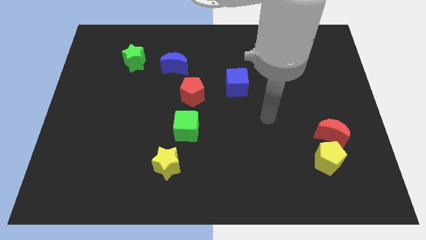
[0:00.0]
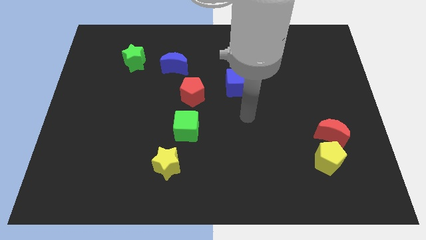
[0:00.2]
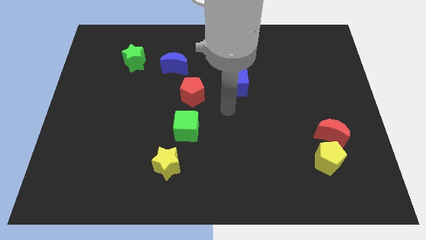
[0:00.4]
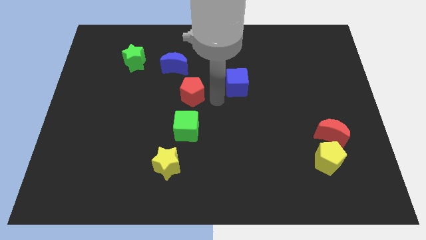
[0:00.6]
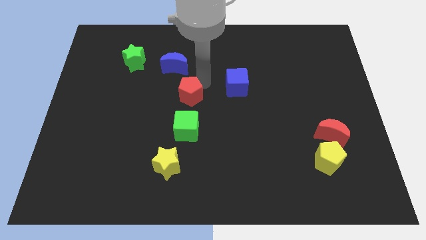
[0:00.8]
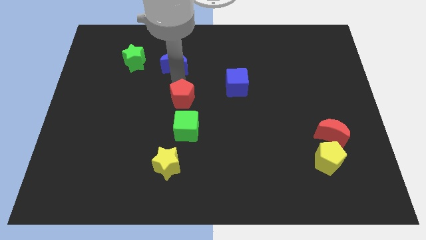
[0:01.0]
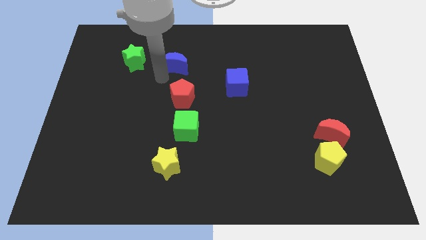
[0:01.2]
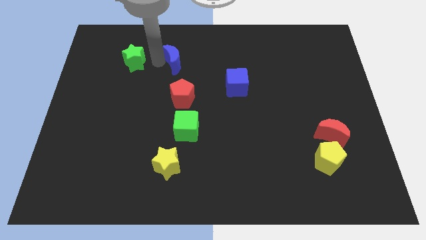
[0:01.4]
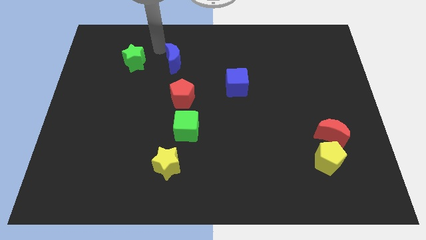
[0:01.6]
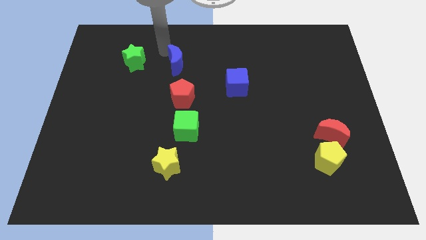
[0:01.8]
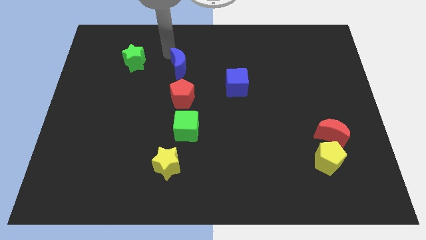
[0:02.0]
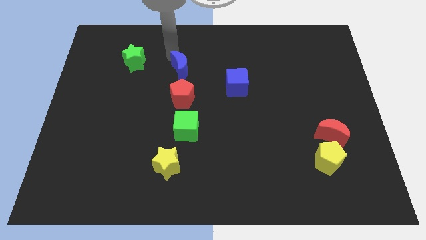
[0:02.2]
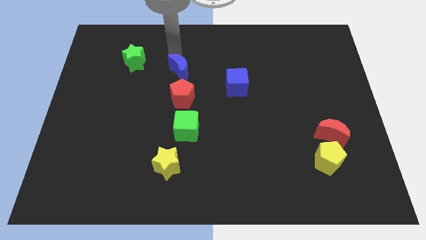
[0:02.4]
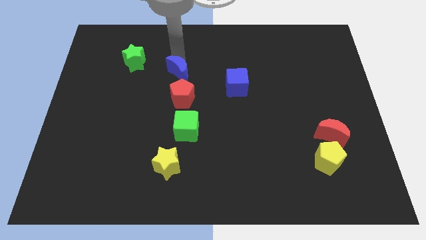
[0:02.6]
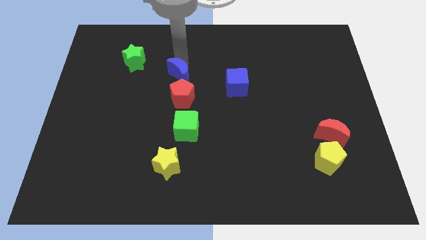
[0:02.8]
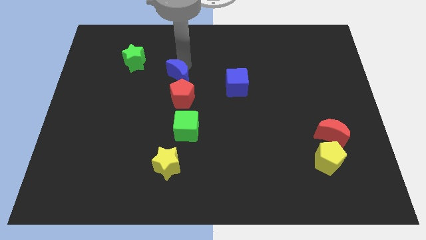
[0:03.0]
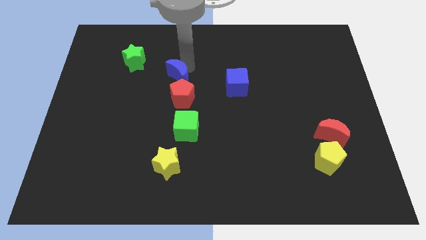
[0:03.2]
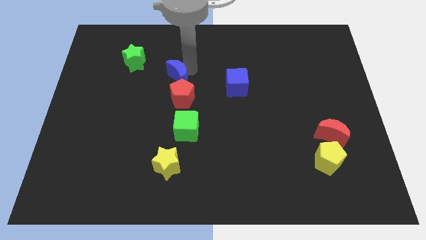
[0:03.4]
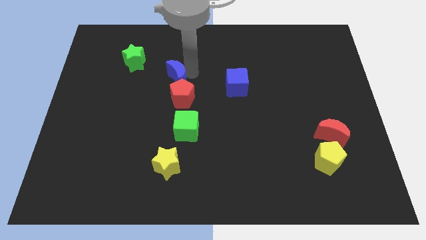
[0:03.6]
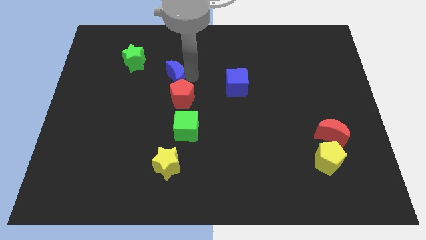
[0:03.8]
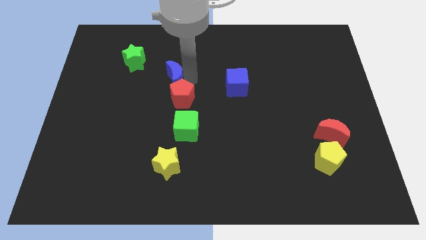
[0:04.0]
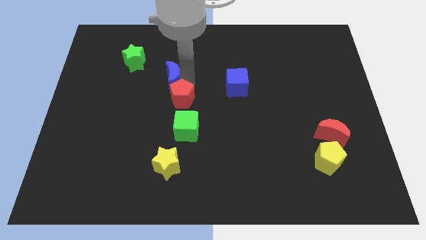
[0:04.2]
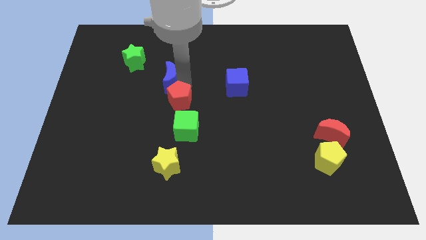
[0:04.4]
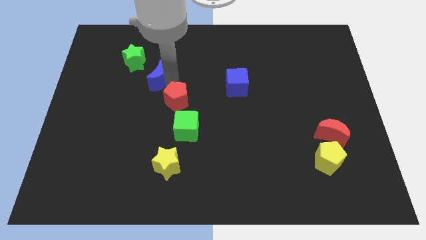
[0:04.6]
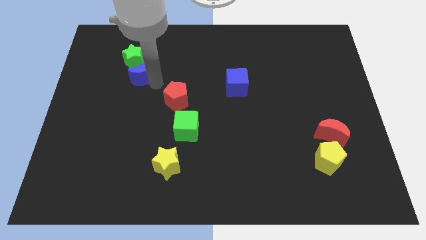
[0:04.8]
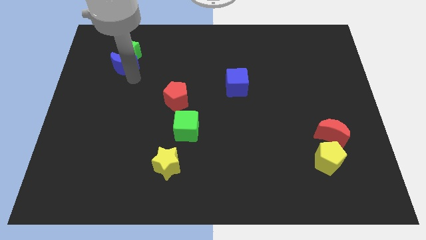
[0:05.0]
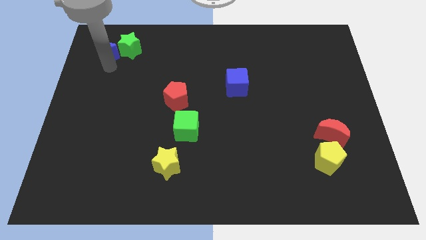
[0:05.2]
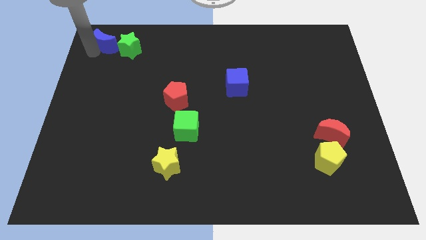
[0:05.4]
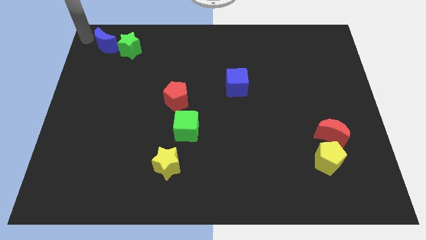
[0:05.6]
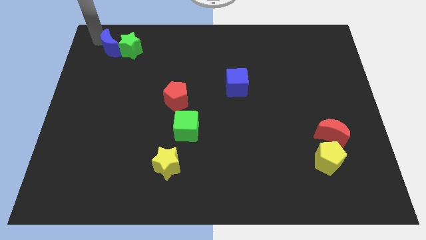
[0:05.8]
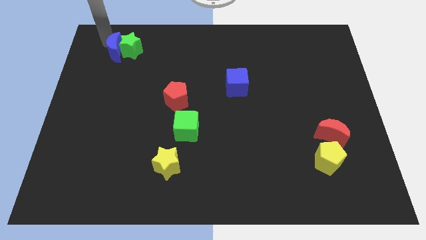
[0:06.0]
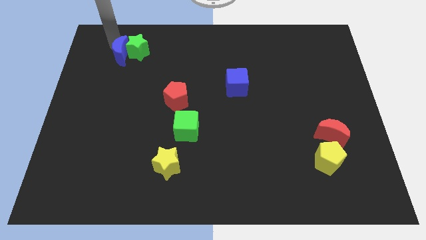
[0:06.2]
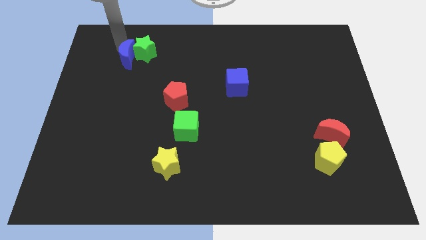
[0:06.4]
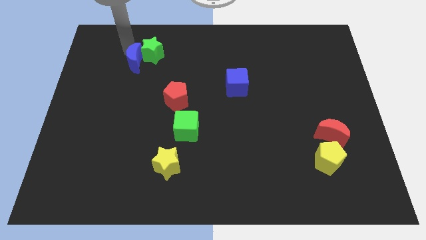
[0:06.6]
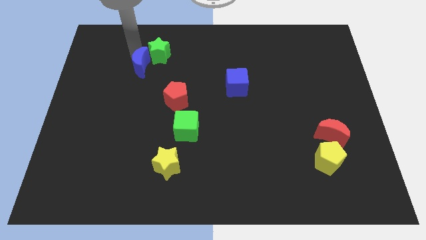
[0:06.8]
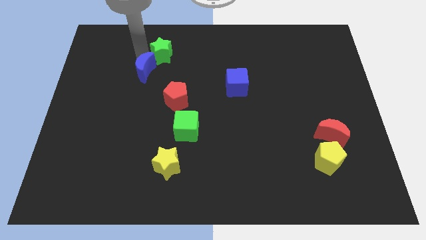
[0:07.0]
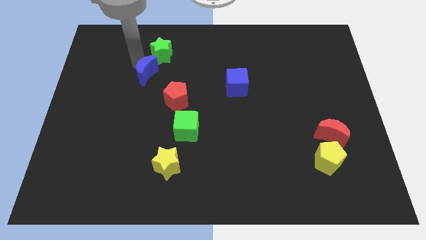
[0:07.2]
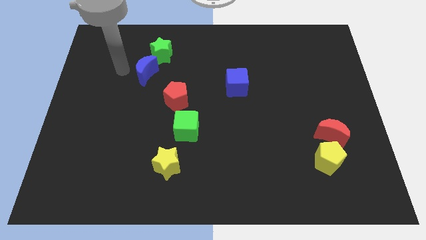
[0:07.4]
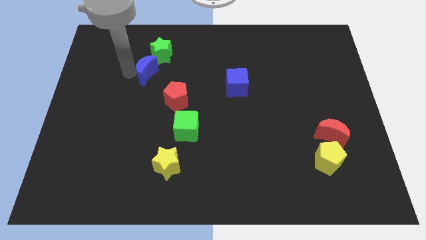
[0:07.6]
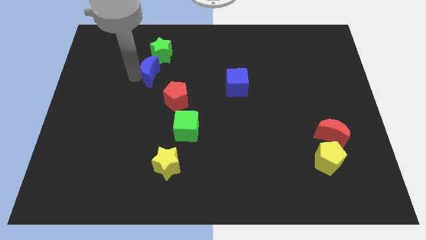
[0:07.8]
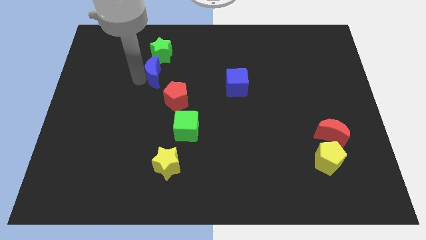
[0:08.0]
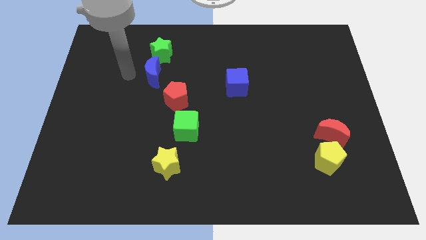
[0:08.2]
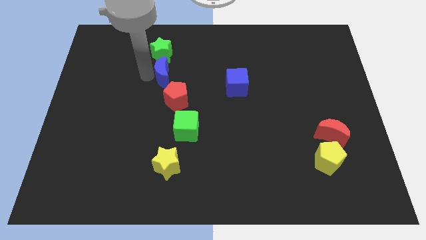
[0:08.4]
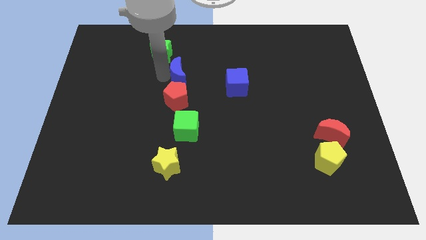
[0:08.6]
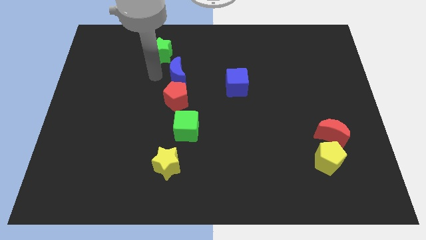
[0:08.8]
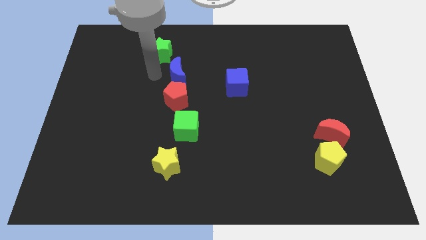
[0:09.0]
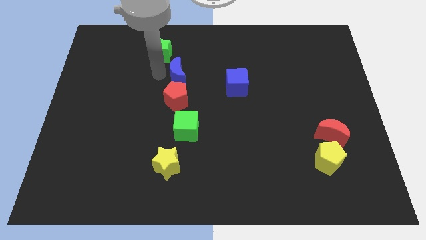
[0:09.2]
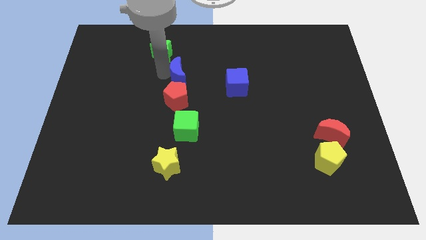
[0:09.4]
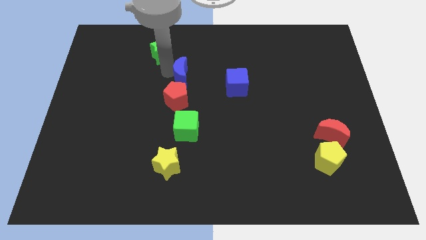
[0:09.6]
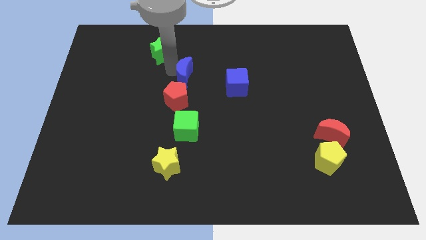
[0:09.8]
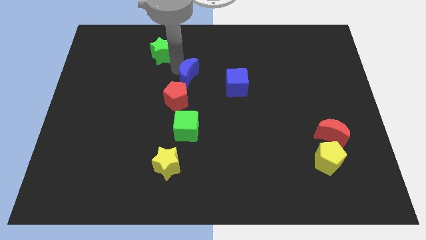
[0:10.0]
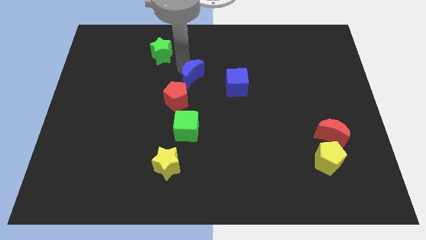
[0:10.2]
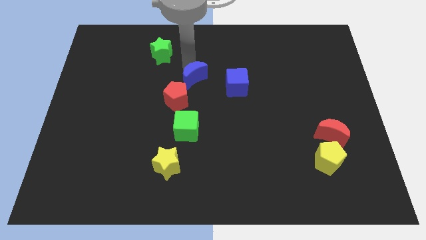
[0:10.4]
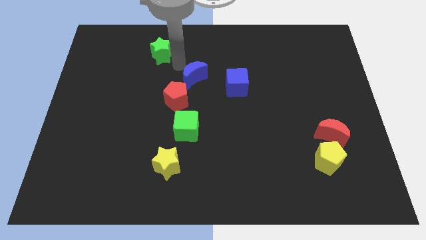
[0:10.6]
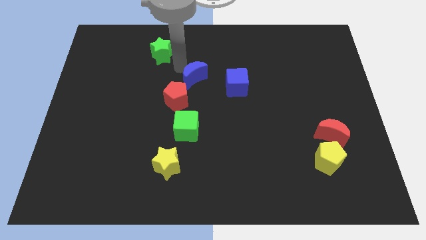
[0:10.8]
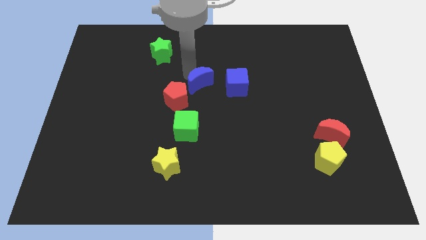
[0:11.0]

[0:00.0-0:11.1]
slide the blue moon a bit downwards and then to the right

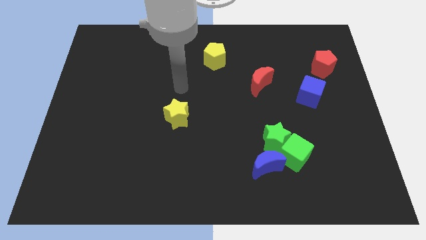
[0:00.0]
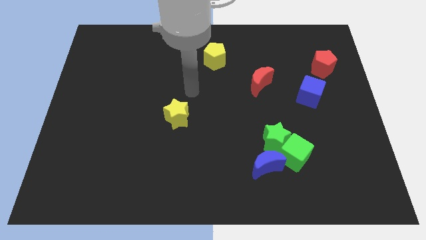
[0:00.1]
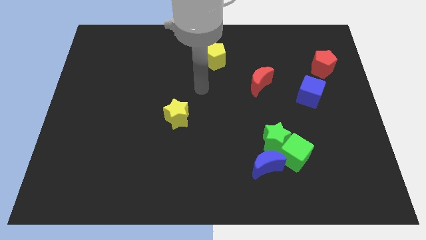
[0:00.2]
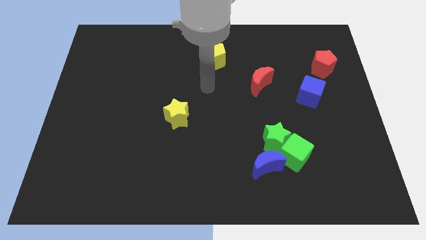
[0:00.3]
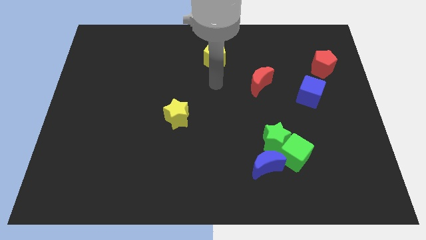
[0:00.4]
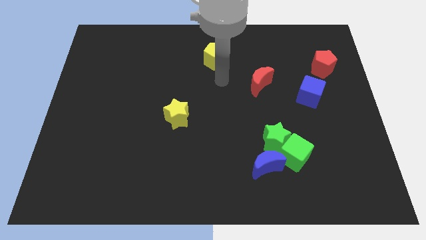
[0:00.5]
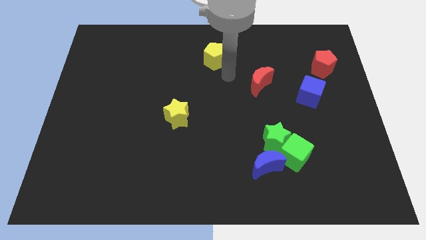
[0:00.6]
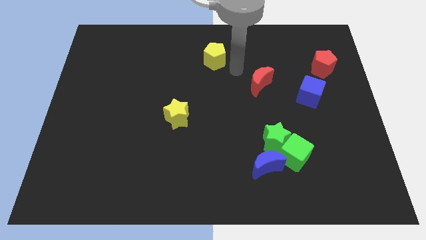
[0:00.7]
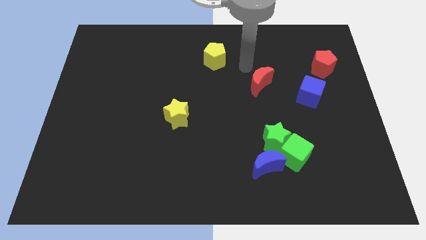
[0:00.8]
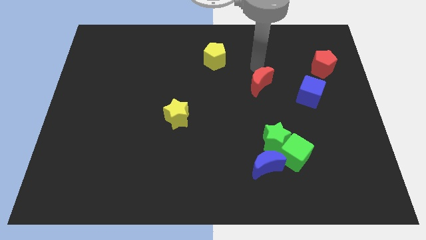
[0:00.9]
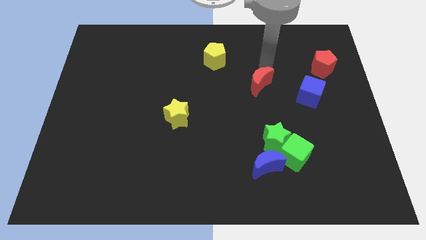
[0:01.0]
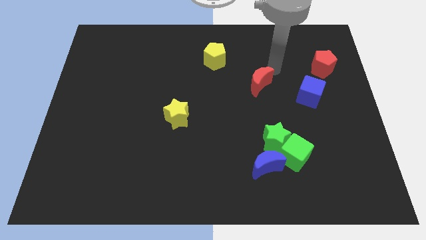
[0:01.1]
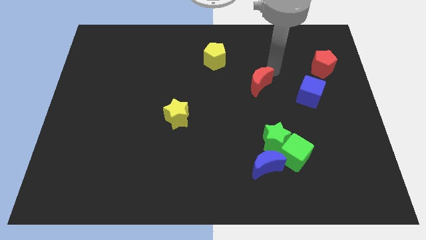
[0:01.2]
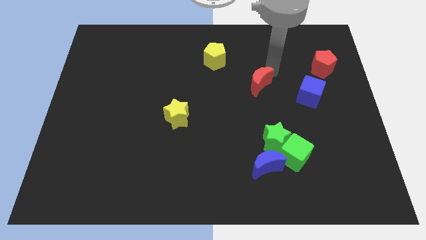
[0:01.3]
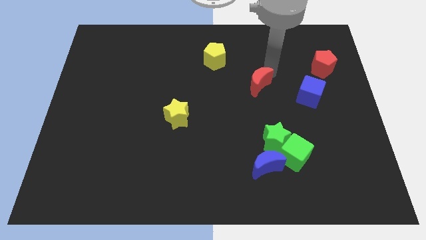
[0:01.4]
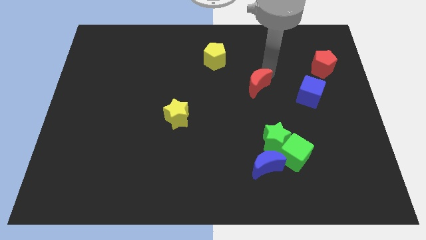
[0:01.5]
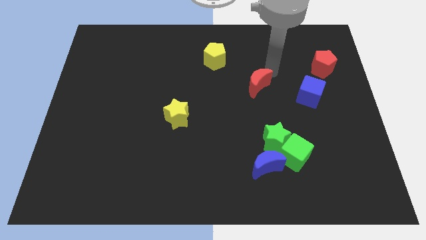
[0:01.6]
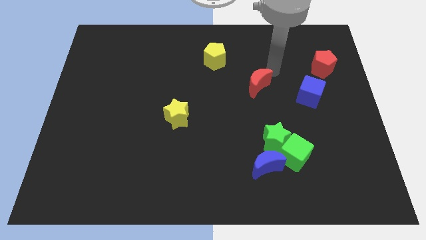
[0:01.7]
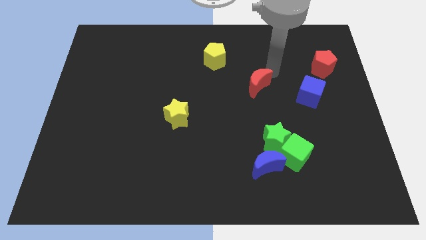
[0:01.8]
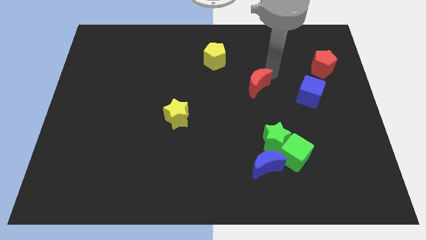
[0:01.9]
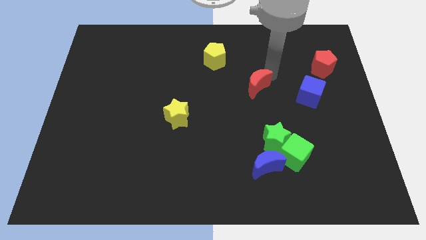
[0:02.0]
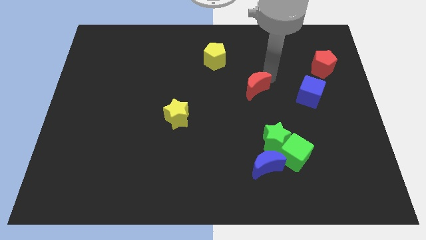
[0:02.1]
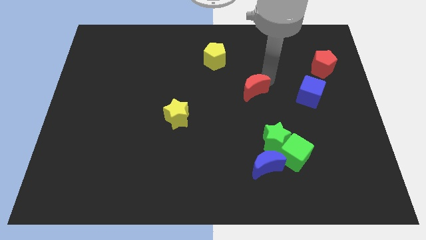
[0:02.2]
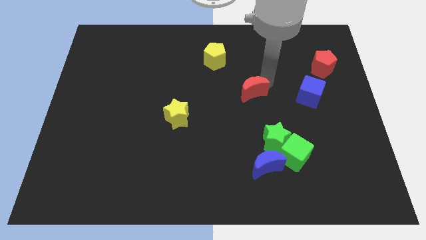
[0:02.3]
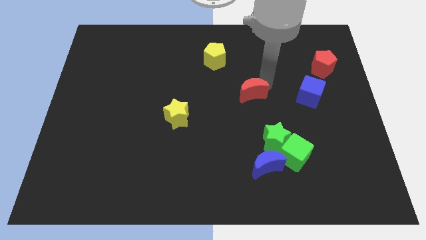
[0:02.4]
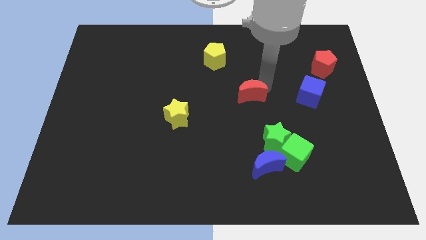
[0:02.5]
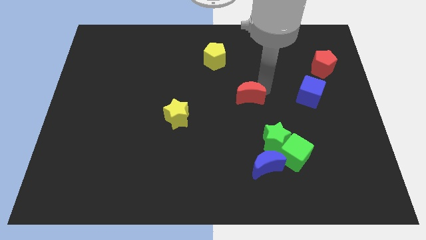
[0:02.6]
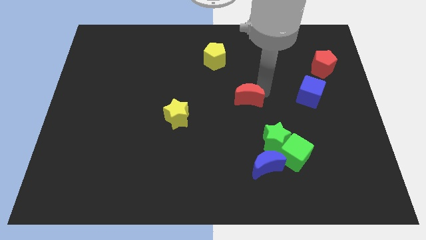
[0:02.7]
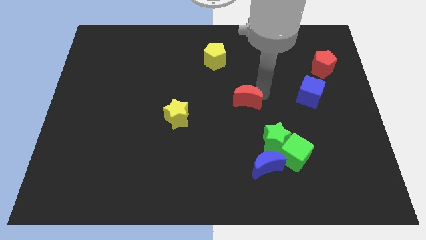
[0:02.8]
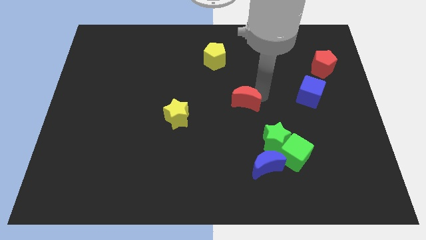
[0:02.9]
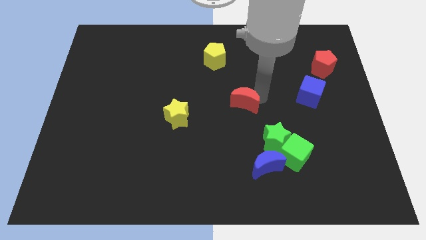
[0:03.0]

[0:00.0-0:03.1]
move the red moon downwards and to the left diagonally a bit
